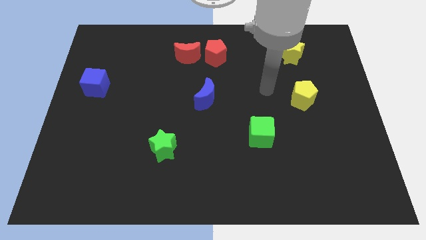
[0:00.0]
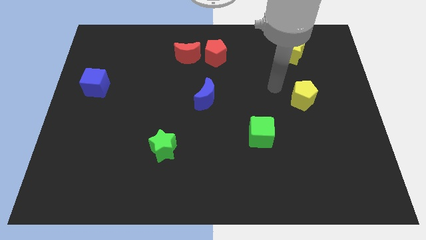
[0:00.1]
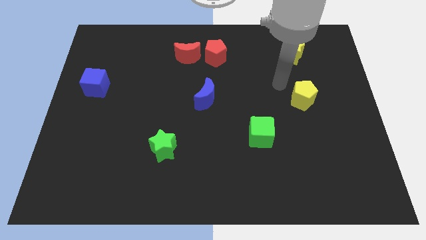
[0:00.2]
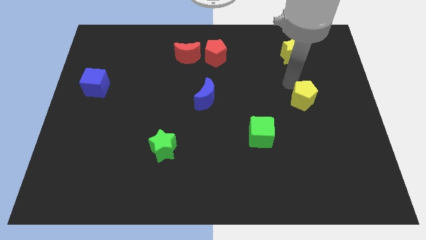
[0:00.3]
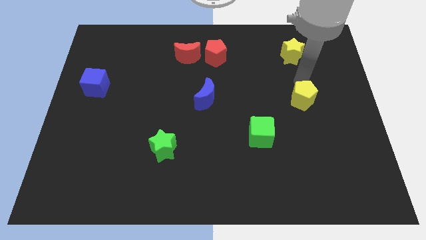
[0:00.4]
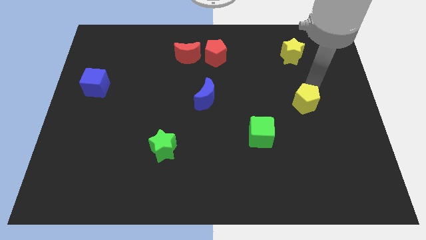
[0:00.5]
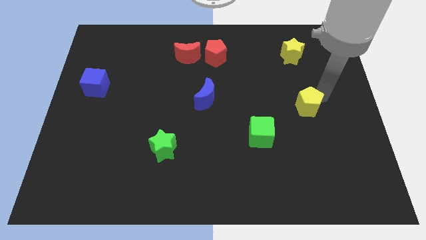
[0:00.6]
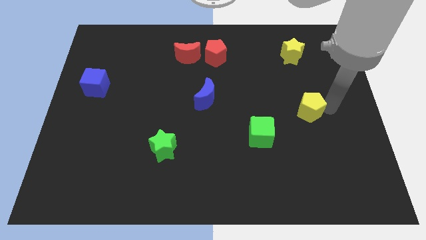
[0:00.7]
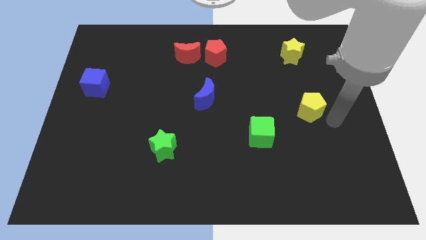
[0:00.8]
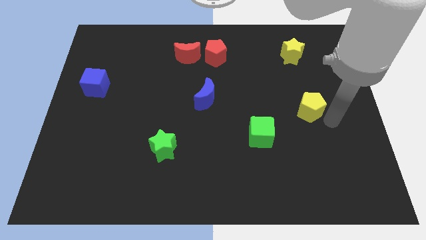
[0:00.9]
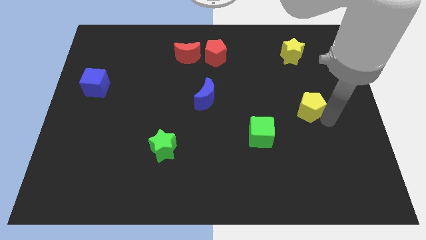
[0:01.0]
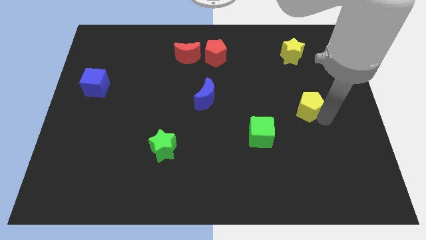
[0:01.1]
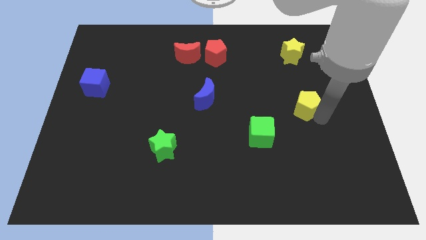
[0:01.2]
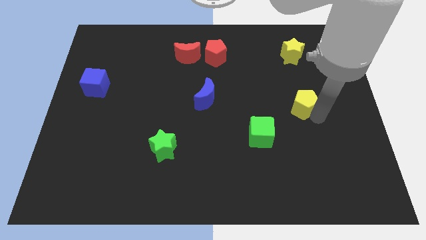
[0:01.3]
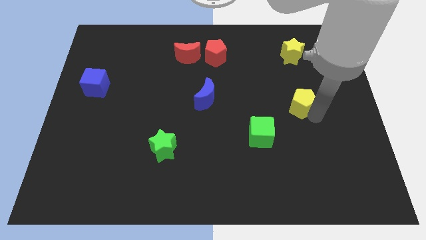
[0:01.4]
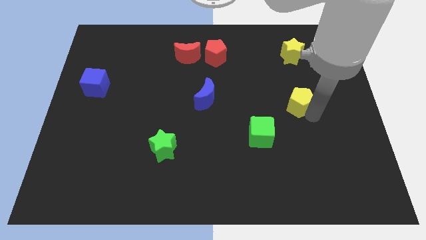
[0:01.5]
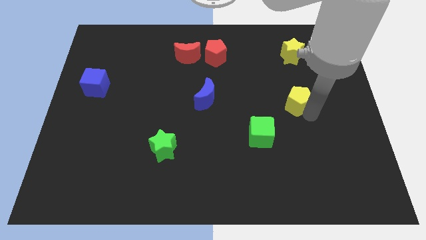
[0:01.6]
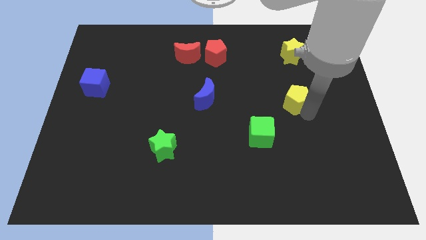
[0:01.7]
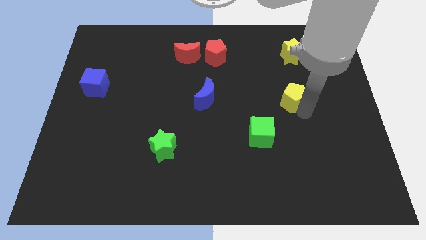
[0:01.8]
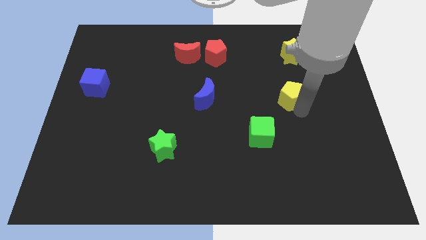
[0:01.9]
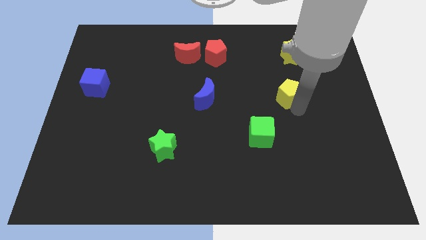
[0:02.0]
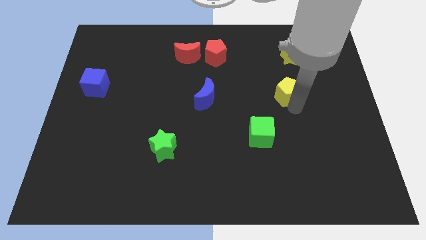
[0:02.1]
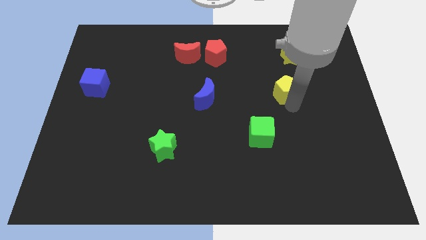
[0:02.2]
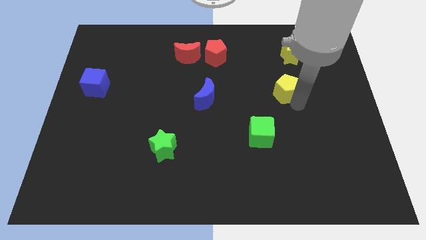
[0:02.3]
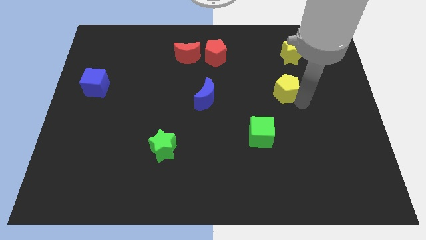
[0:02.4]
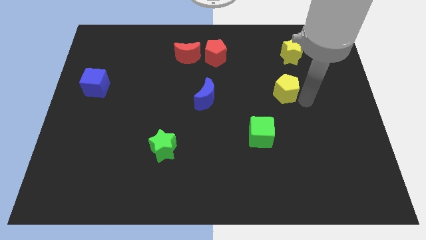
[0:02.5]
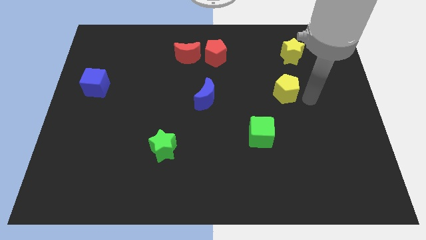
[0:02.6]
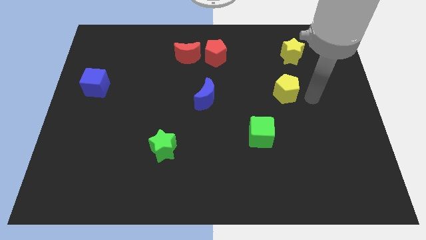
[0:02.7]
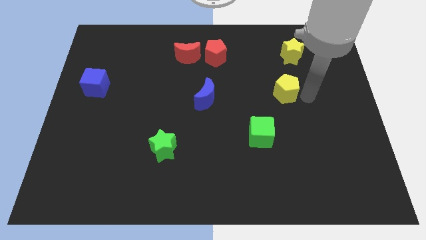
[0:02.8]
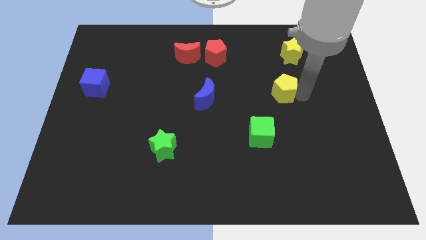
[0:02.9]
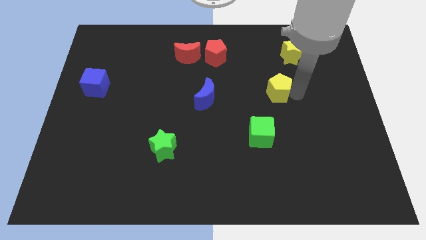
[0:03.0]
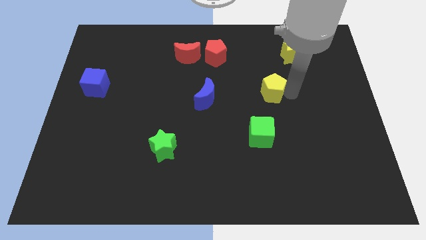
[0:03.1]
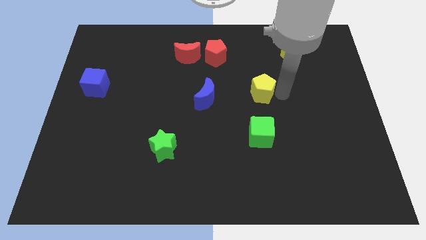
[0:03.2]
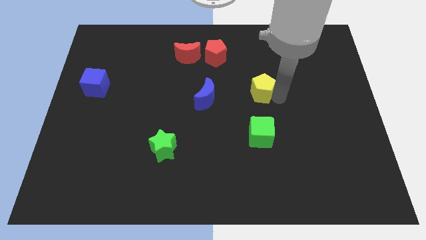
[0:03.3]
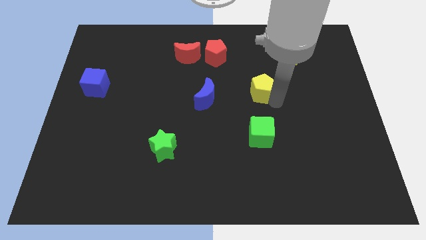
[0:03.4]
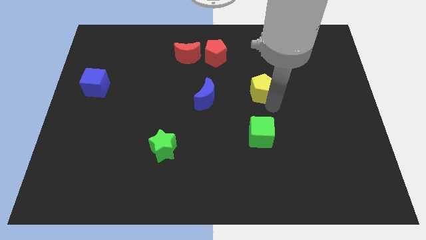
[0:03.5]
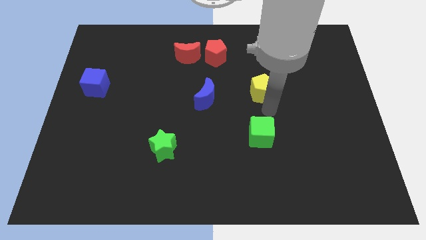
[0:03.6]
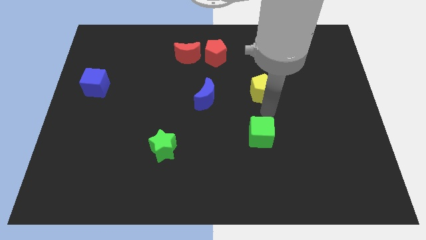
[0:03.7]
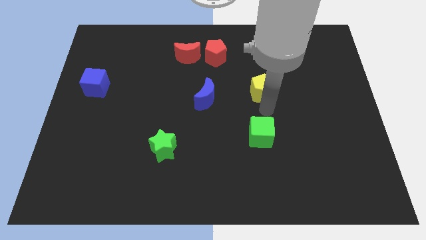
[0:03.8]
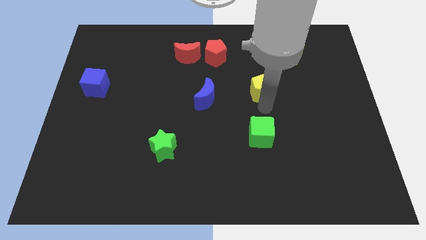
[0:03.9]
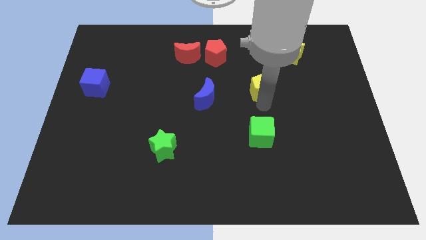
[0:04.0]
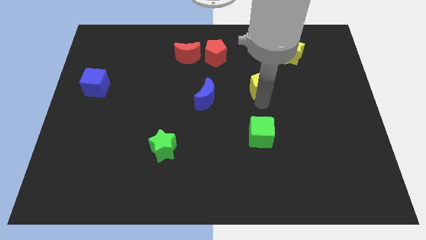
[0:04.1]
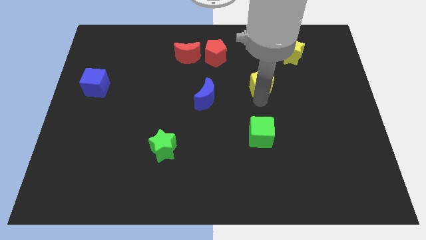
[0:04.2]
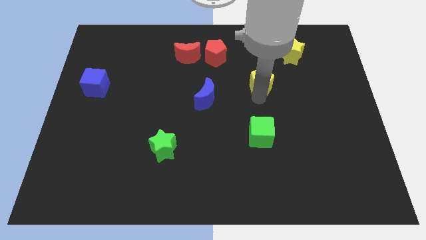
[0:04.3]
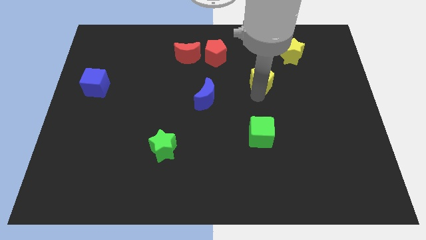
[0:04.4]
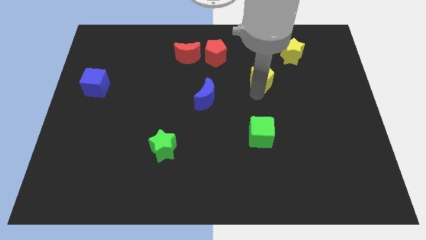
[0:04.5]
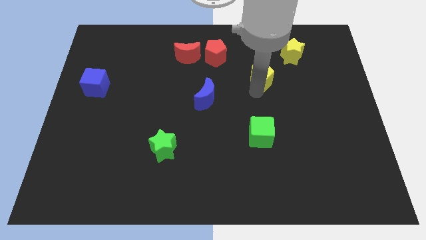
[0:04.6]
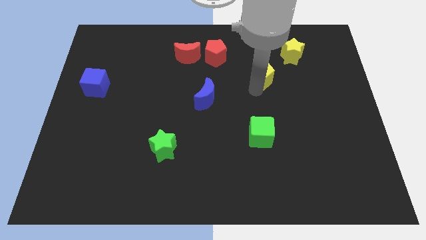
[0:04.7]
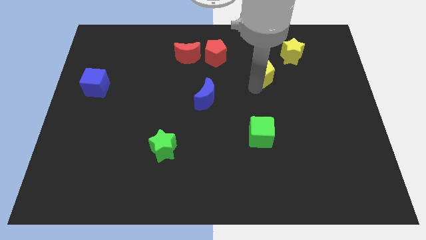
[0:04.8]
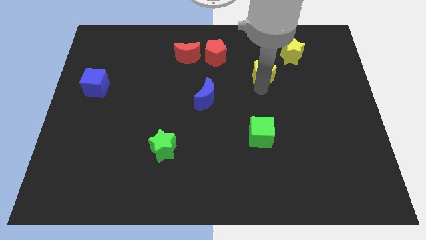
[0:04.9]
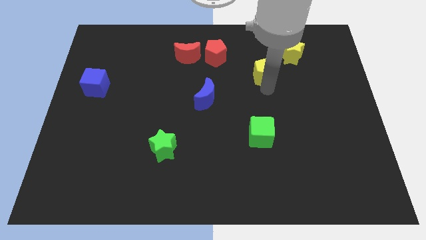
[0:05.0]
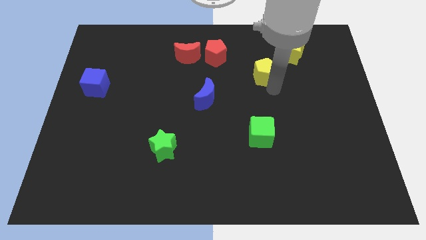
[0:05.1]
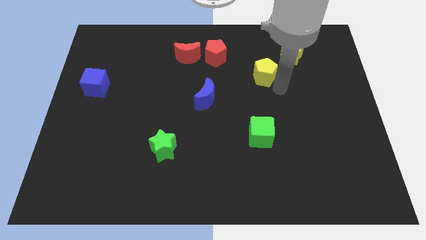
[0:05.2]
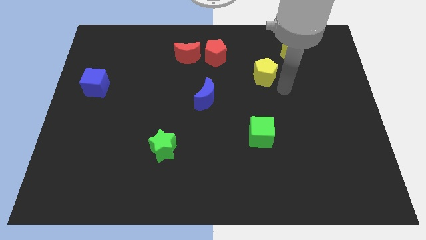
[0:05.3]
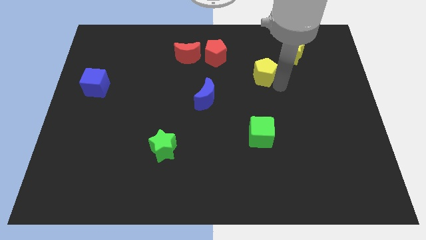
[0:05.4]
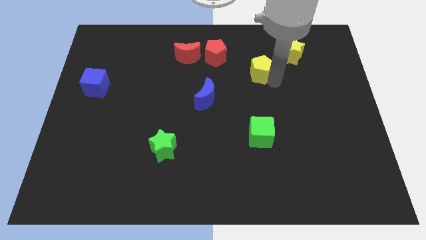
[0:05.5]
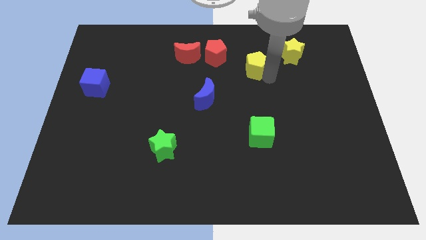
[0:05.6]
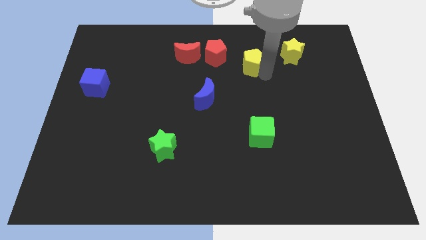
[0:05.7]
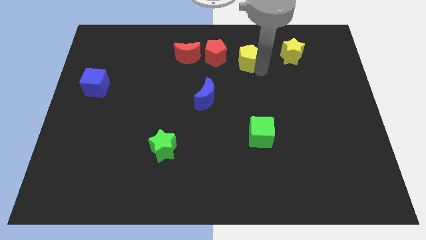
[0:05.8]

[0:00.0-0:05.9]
push the yellow pentagon to the right side of the red moon

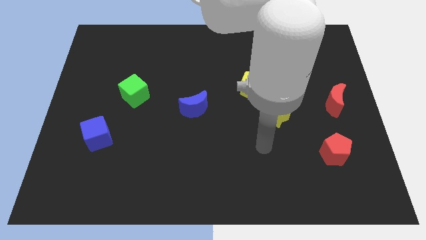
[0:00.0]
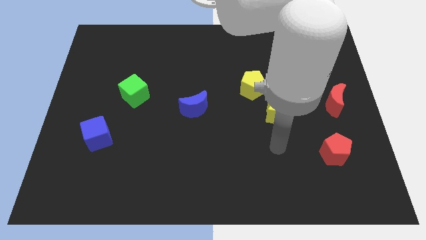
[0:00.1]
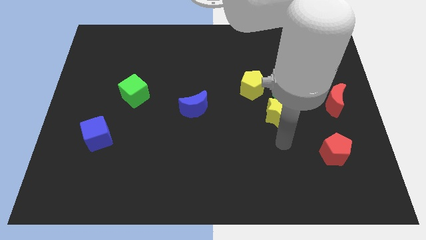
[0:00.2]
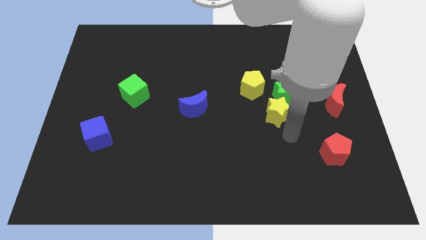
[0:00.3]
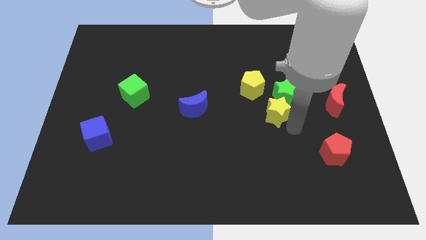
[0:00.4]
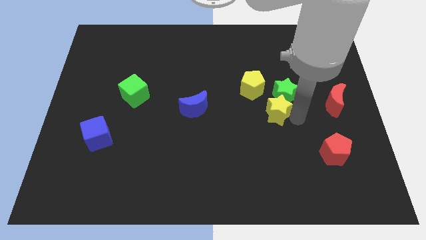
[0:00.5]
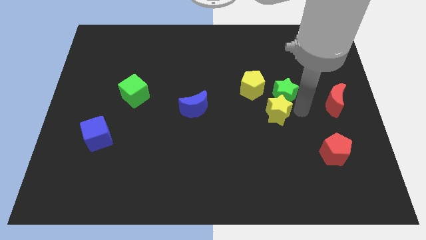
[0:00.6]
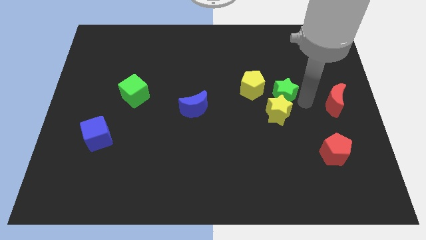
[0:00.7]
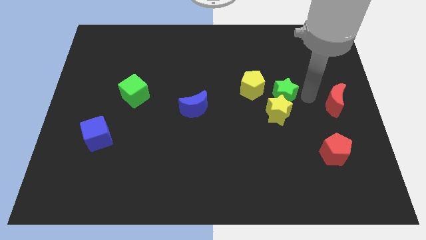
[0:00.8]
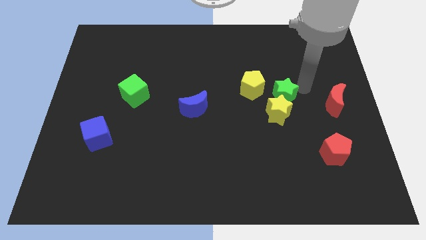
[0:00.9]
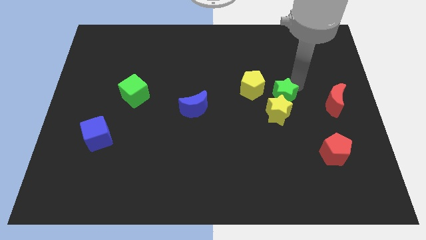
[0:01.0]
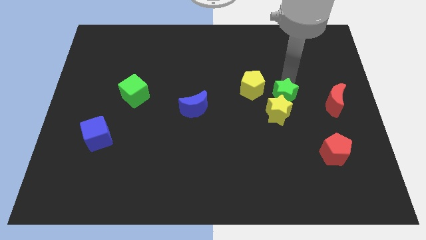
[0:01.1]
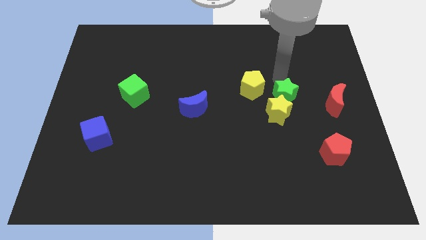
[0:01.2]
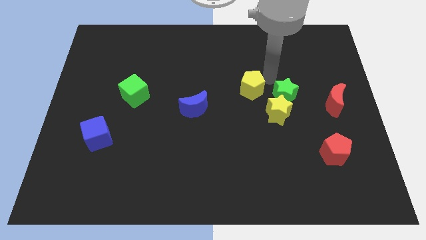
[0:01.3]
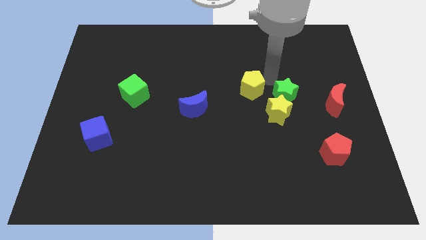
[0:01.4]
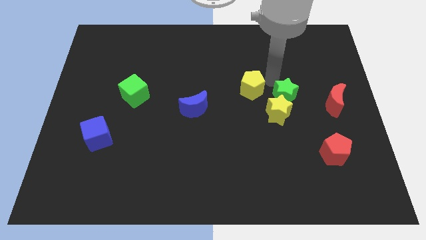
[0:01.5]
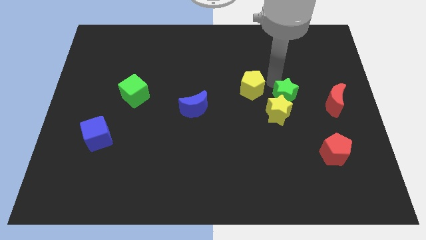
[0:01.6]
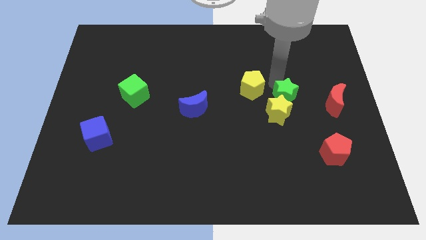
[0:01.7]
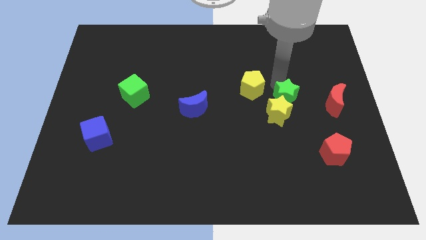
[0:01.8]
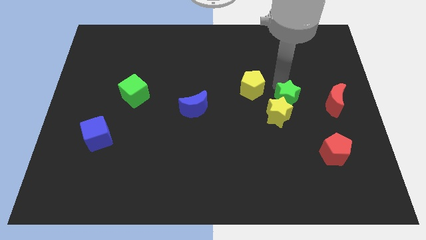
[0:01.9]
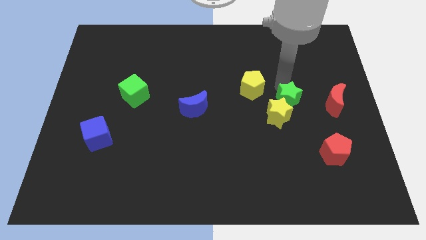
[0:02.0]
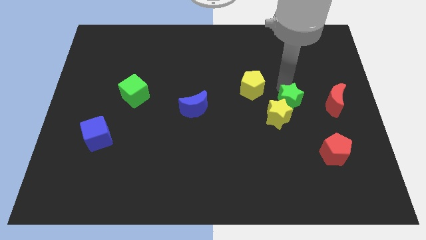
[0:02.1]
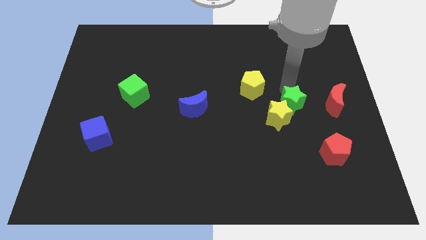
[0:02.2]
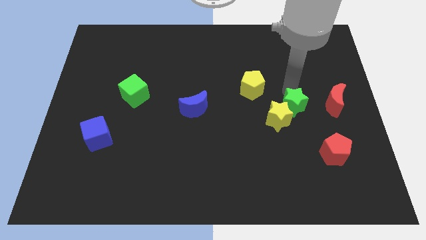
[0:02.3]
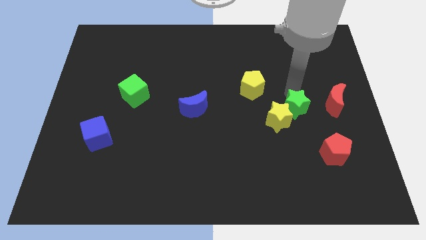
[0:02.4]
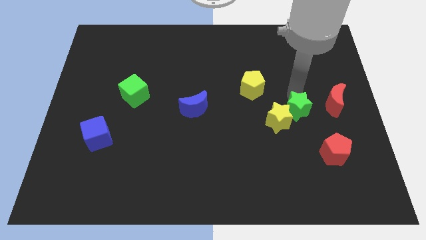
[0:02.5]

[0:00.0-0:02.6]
slide the green star diagonally down and to the left of the red moon
